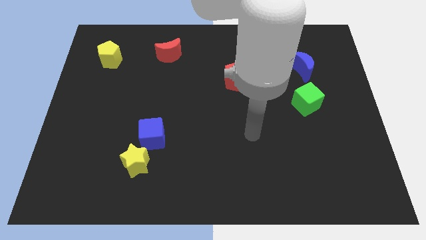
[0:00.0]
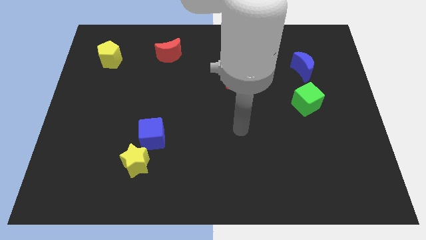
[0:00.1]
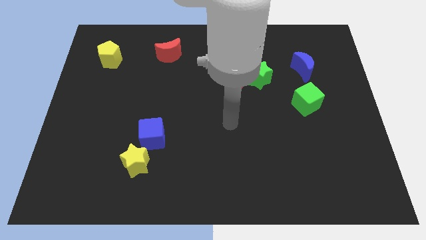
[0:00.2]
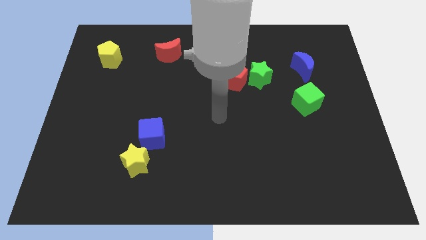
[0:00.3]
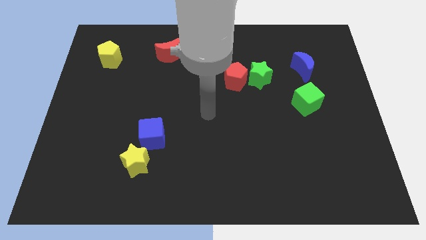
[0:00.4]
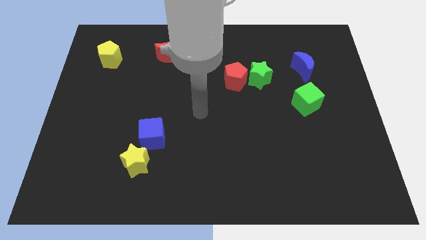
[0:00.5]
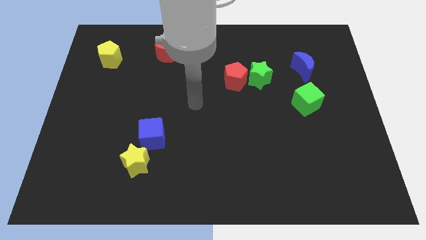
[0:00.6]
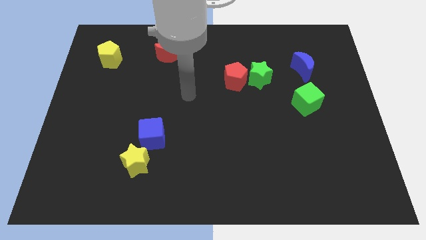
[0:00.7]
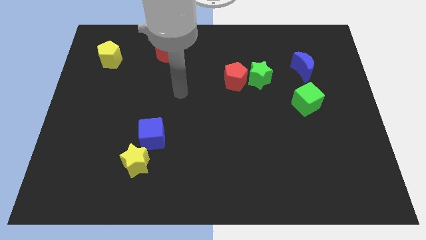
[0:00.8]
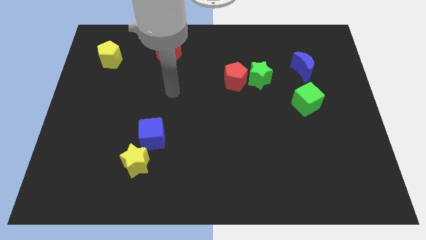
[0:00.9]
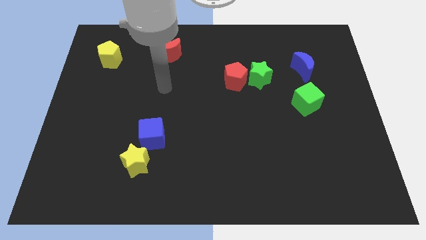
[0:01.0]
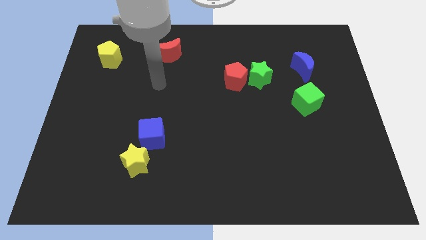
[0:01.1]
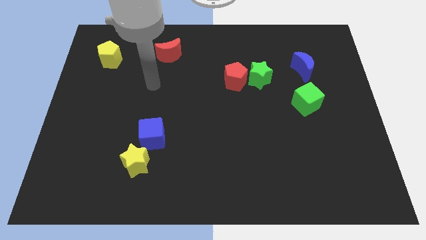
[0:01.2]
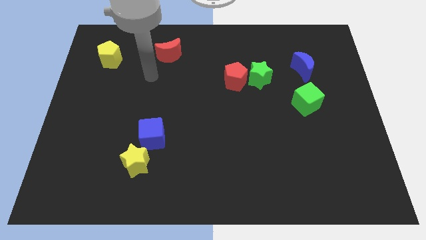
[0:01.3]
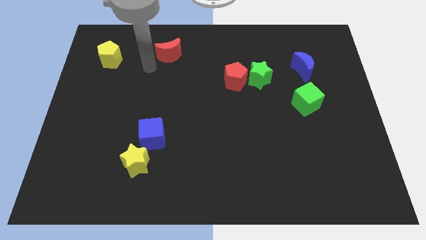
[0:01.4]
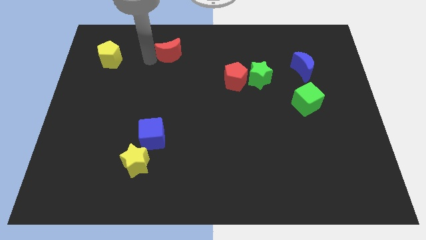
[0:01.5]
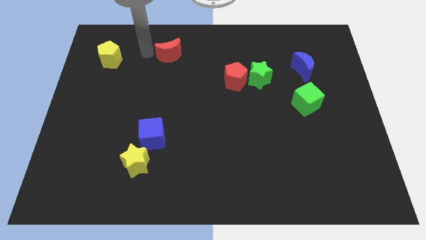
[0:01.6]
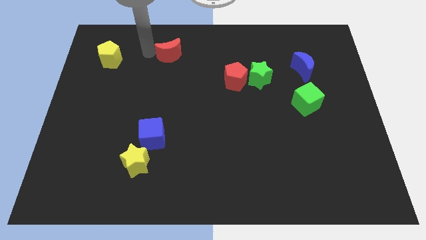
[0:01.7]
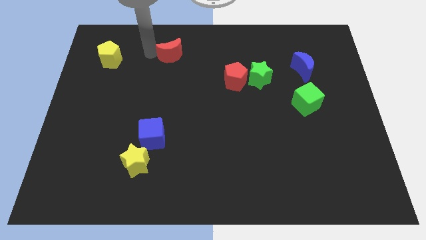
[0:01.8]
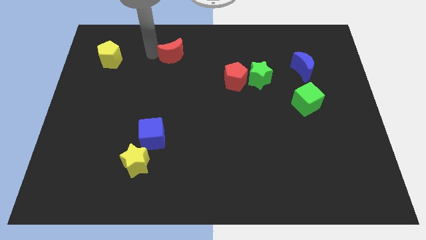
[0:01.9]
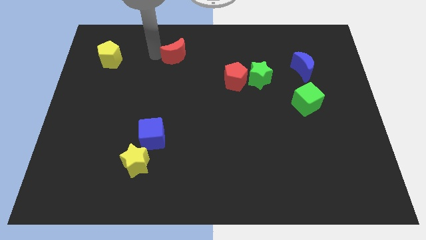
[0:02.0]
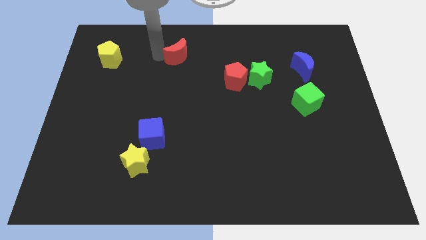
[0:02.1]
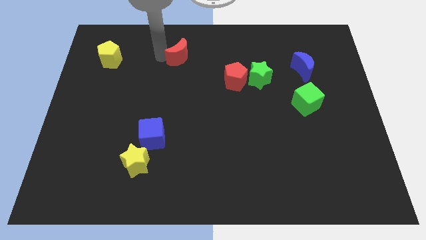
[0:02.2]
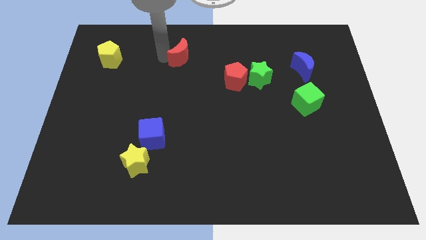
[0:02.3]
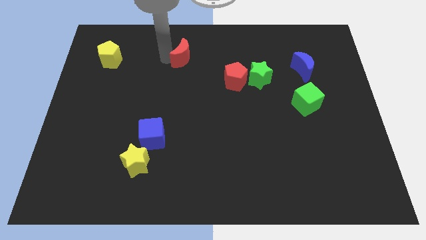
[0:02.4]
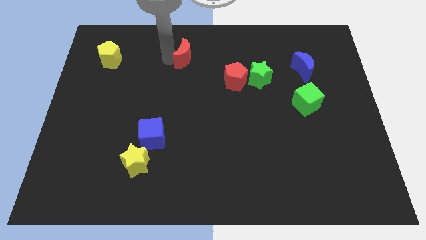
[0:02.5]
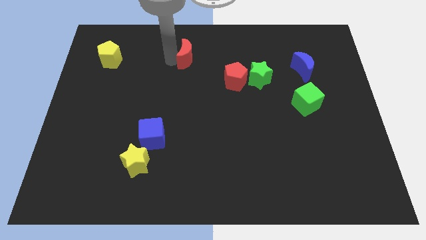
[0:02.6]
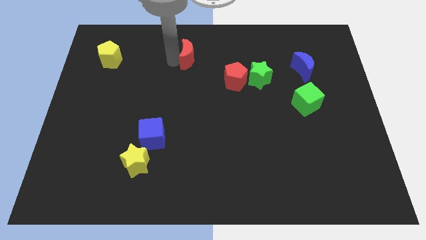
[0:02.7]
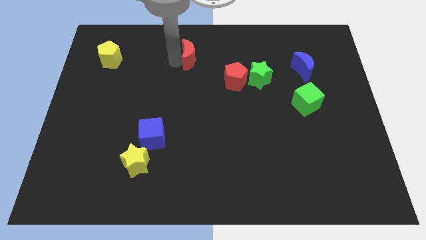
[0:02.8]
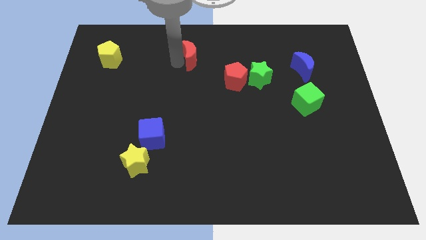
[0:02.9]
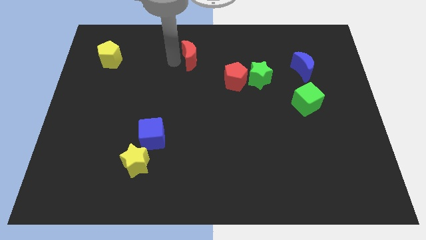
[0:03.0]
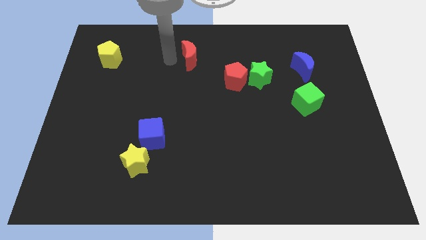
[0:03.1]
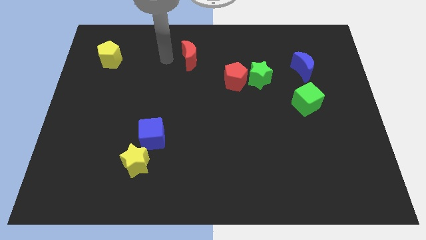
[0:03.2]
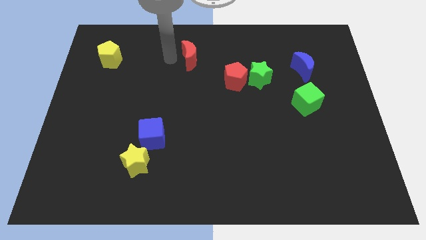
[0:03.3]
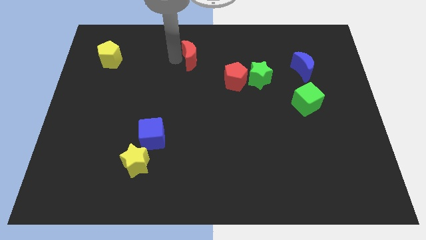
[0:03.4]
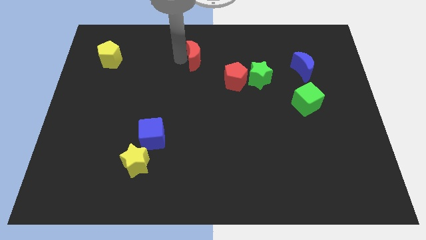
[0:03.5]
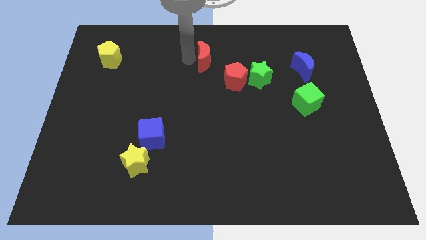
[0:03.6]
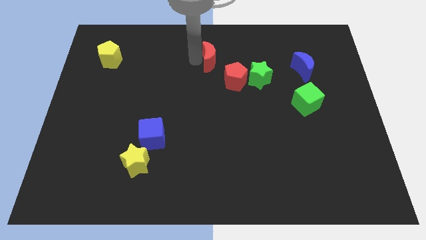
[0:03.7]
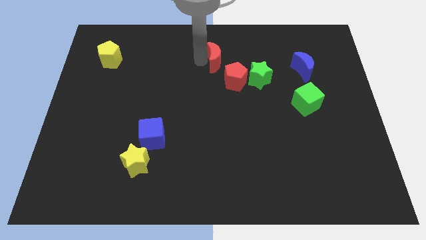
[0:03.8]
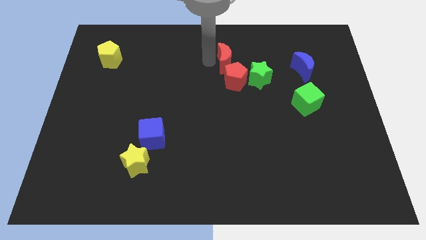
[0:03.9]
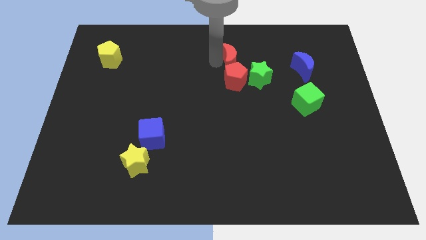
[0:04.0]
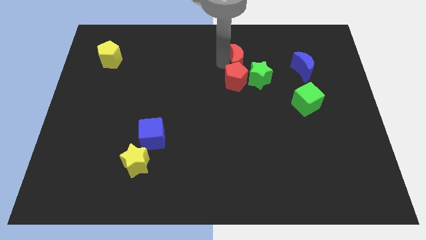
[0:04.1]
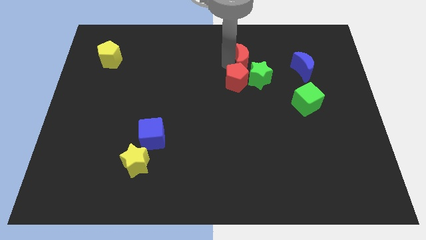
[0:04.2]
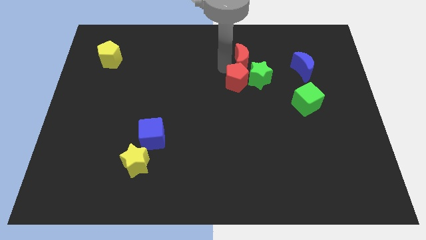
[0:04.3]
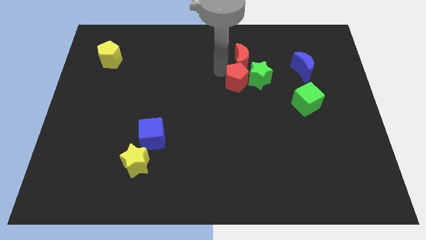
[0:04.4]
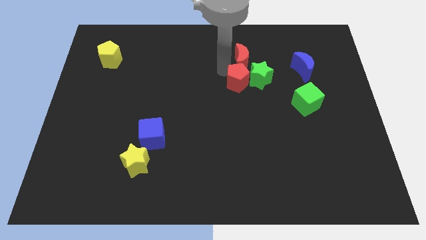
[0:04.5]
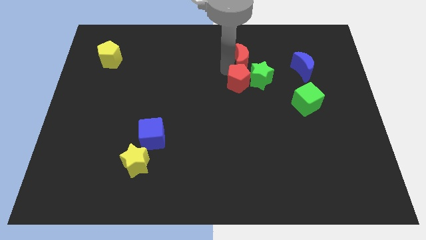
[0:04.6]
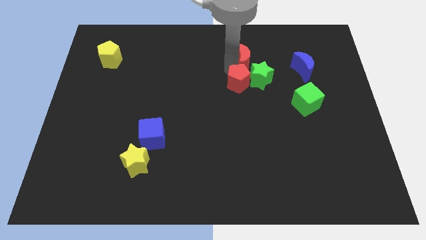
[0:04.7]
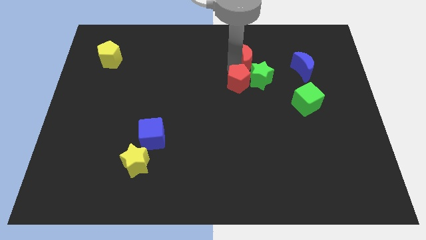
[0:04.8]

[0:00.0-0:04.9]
slide the red moon right

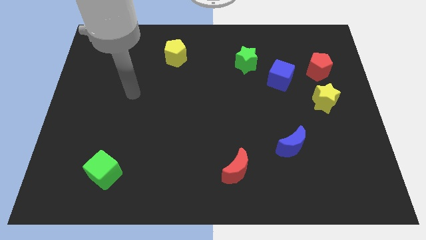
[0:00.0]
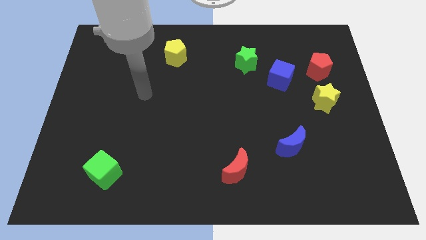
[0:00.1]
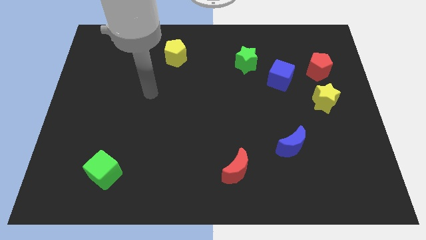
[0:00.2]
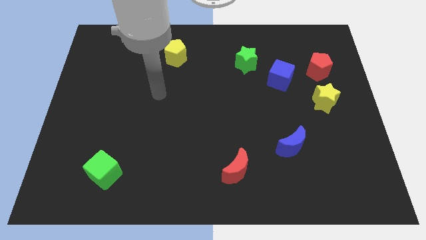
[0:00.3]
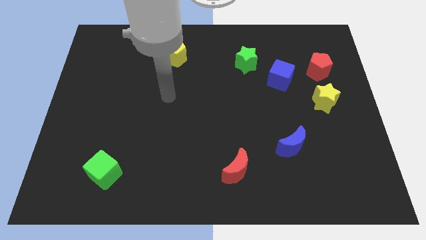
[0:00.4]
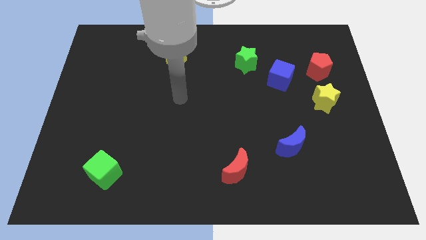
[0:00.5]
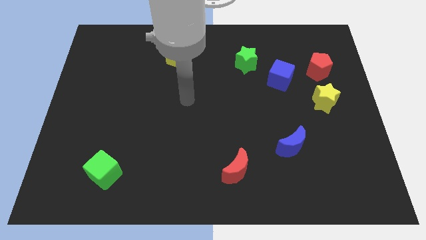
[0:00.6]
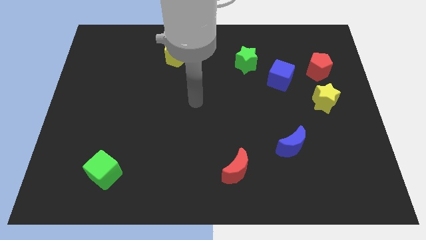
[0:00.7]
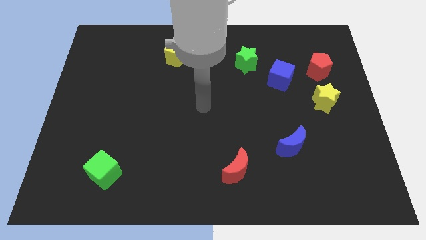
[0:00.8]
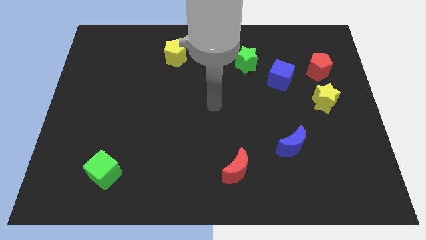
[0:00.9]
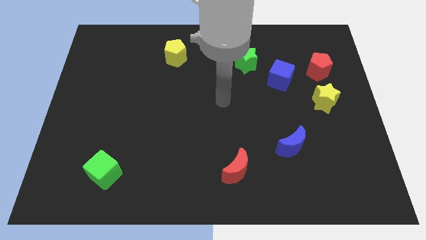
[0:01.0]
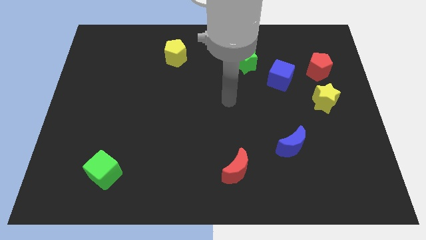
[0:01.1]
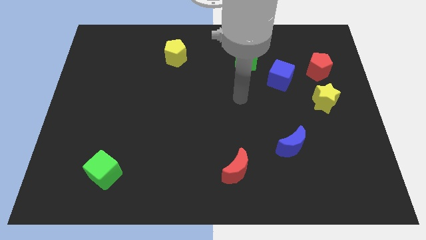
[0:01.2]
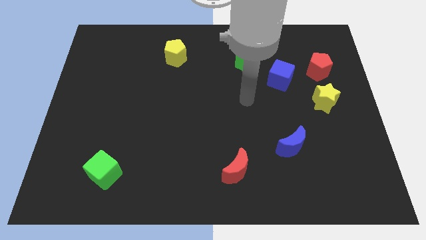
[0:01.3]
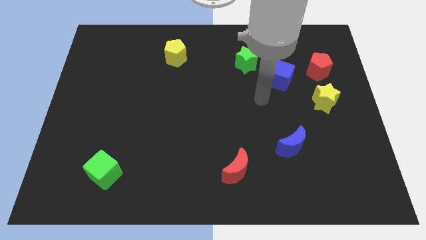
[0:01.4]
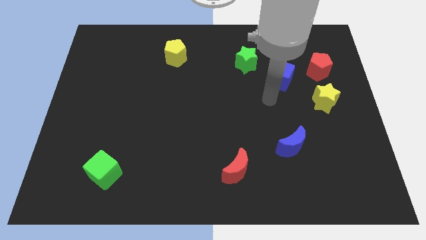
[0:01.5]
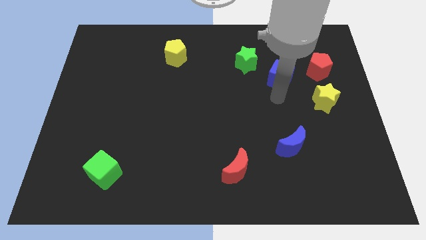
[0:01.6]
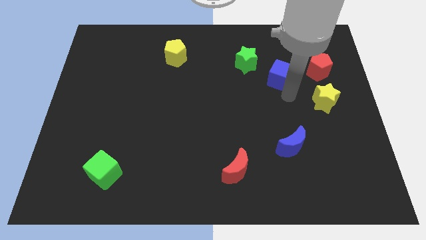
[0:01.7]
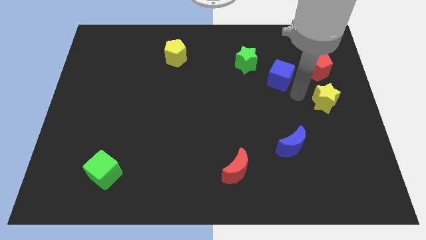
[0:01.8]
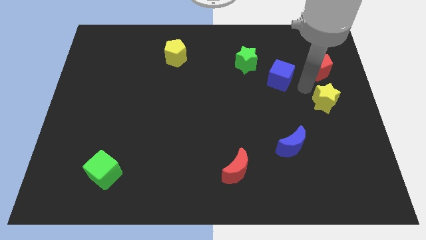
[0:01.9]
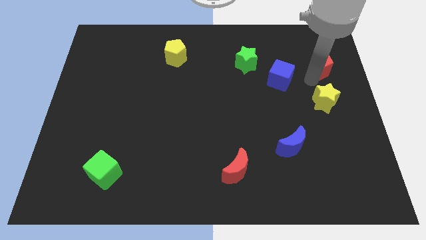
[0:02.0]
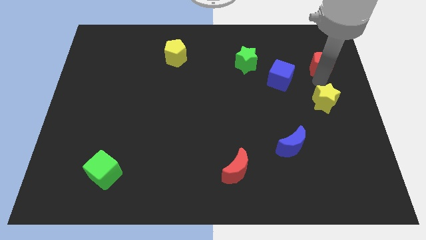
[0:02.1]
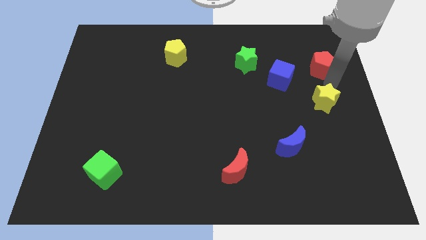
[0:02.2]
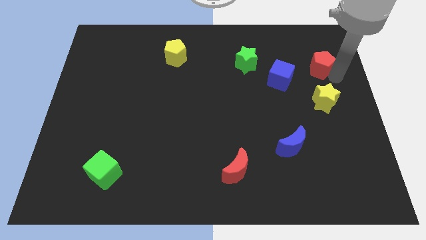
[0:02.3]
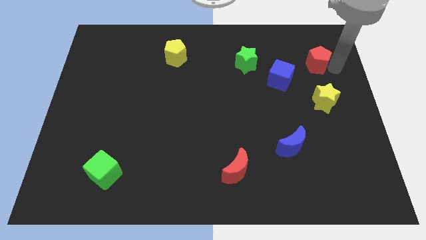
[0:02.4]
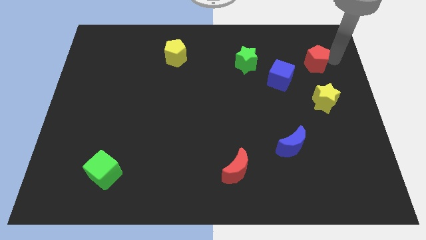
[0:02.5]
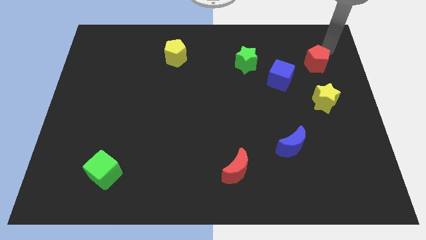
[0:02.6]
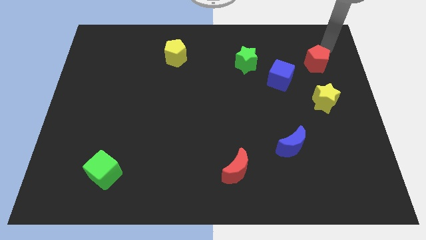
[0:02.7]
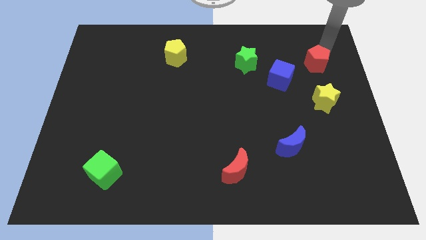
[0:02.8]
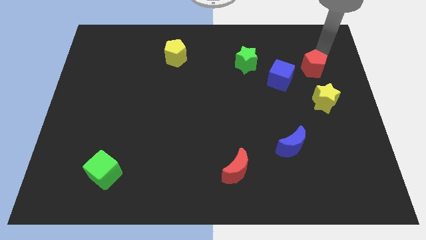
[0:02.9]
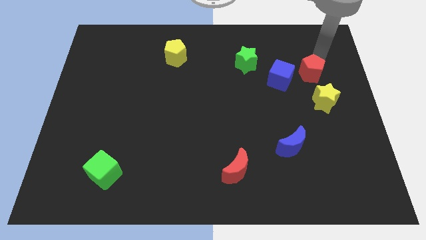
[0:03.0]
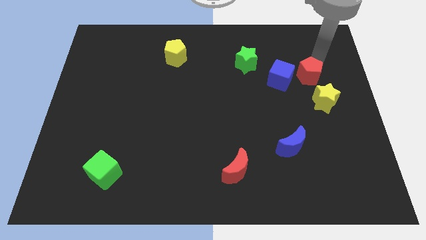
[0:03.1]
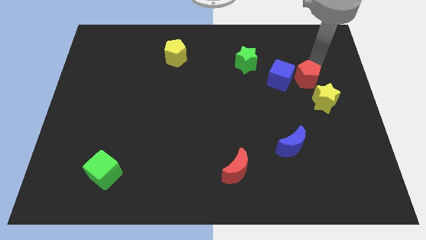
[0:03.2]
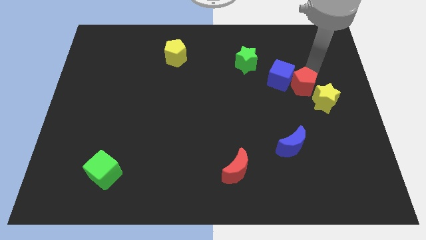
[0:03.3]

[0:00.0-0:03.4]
slightly push the red pentagon down and to the left diagonally
